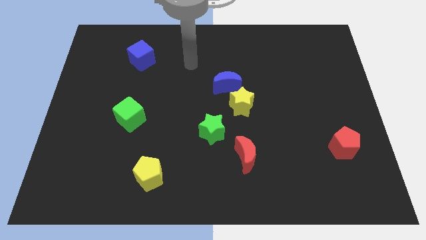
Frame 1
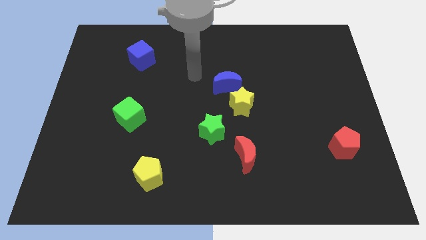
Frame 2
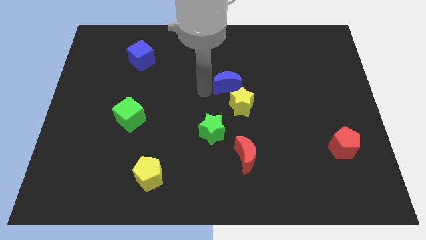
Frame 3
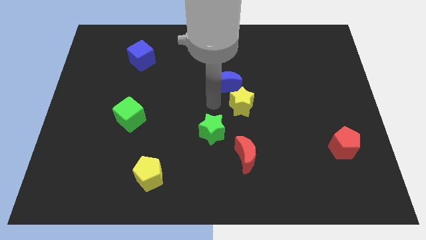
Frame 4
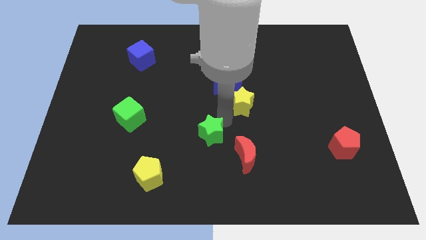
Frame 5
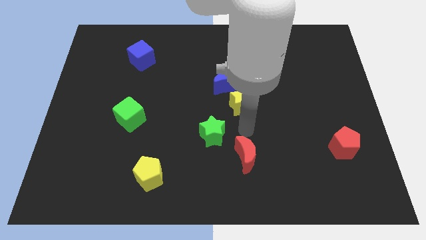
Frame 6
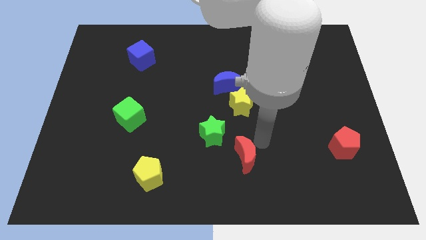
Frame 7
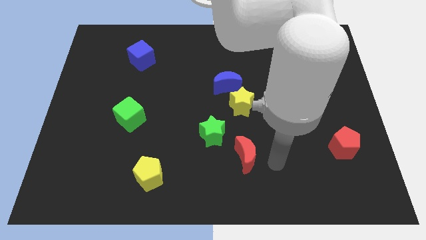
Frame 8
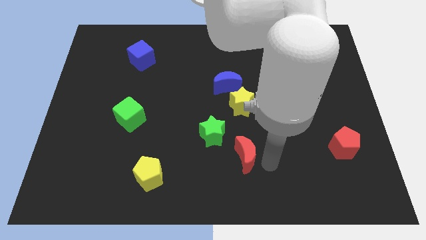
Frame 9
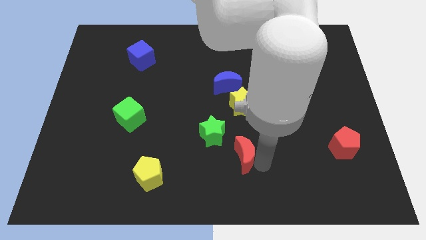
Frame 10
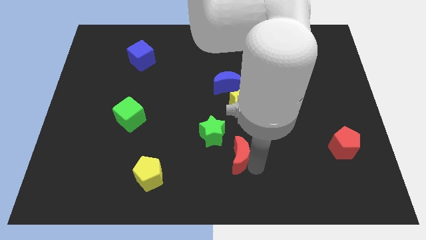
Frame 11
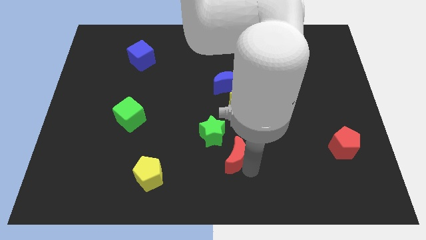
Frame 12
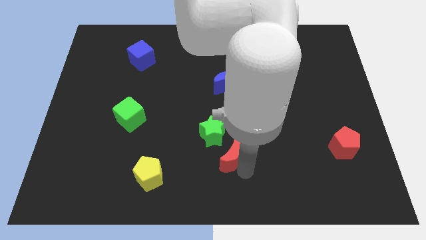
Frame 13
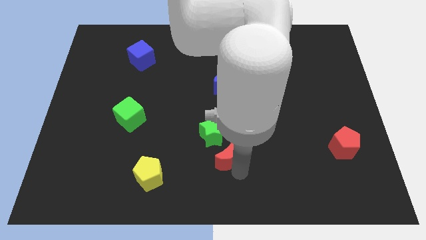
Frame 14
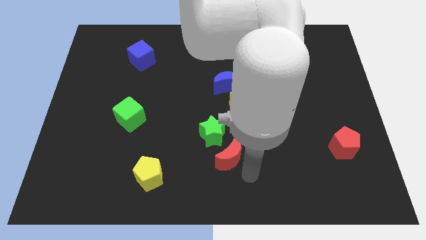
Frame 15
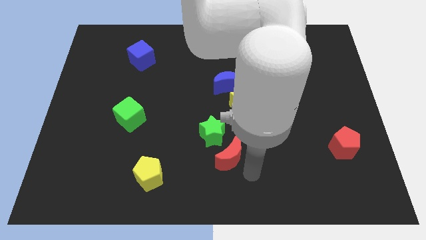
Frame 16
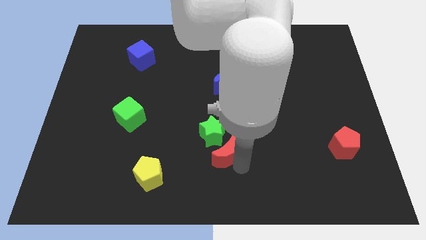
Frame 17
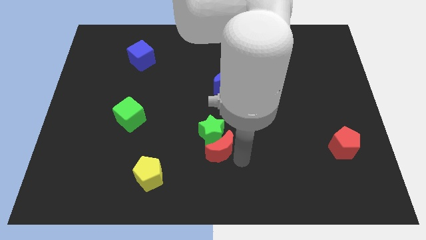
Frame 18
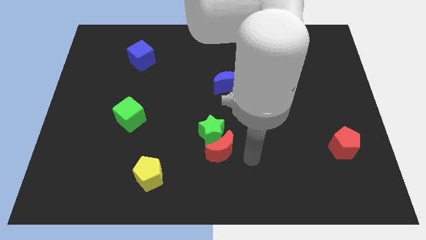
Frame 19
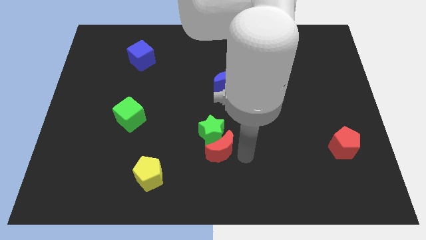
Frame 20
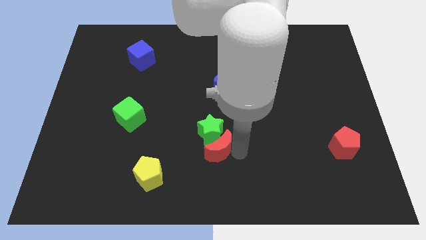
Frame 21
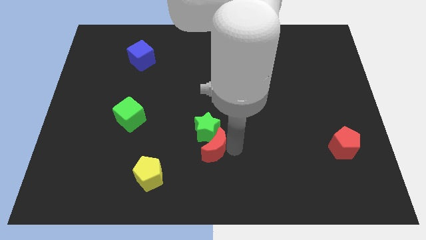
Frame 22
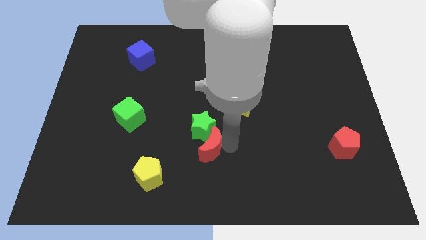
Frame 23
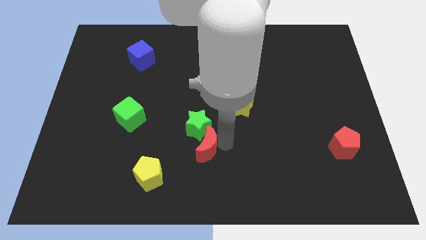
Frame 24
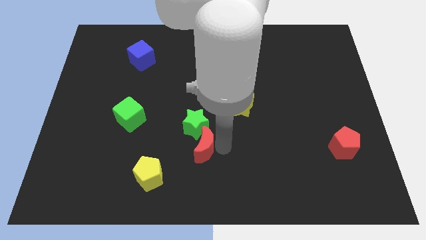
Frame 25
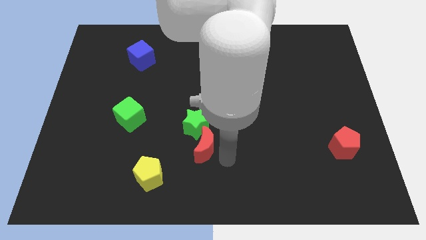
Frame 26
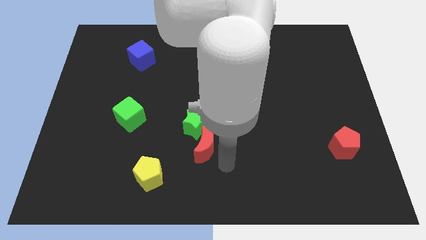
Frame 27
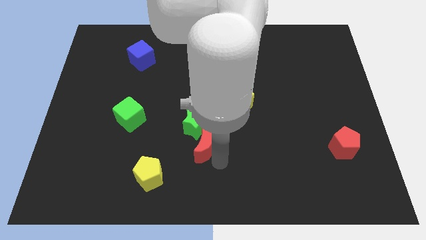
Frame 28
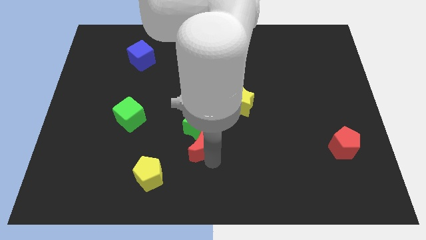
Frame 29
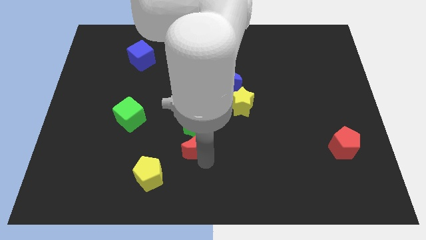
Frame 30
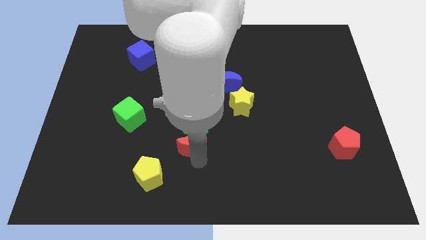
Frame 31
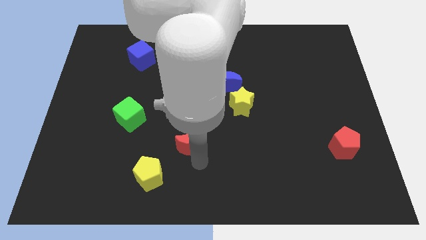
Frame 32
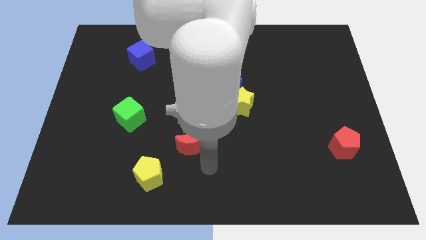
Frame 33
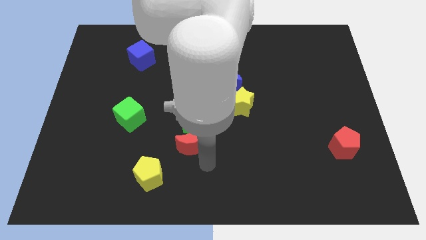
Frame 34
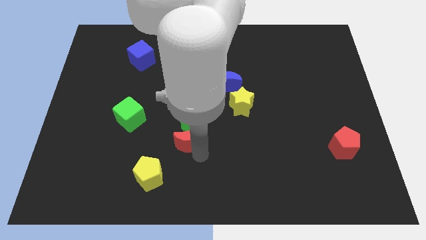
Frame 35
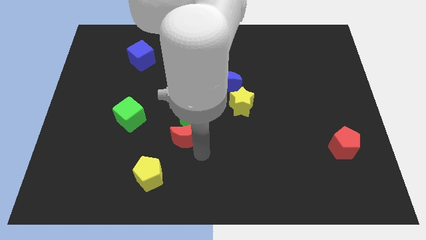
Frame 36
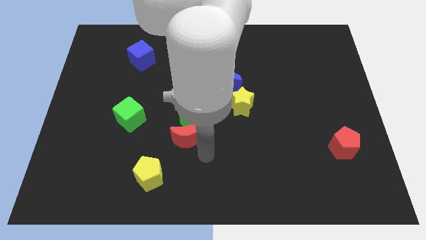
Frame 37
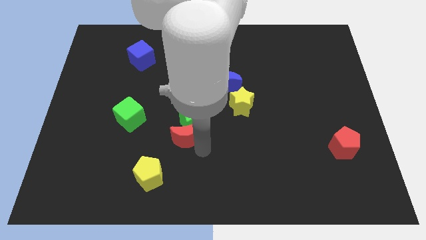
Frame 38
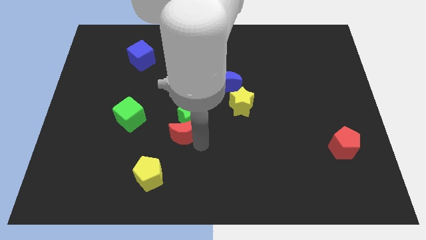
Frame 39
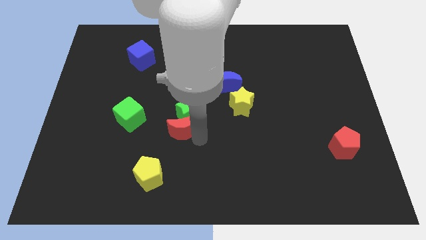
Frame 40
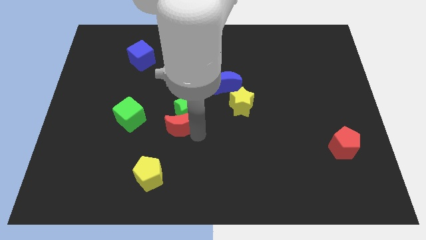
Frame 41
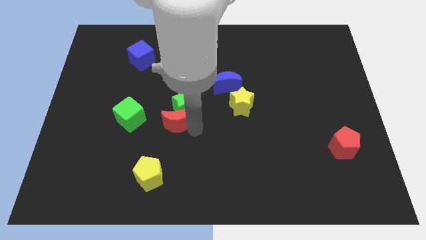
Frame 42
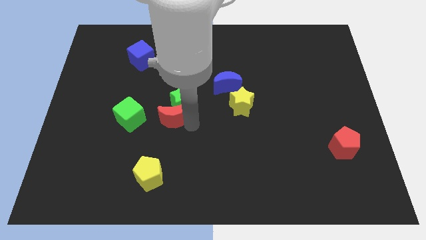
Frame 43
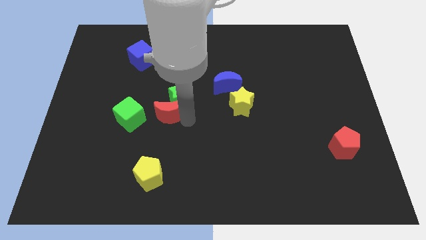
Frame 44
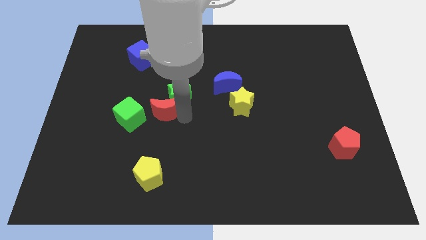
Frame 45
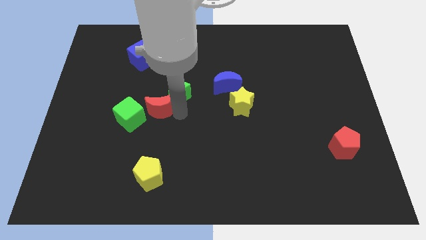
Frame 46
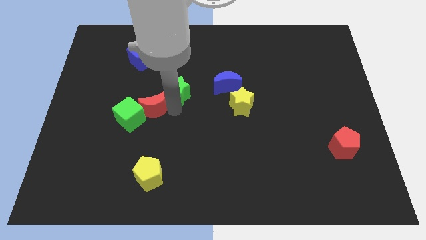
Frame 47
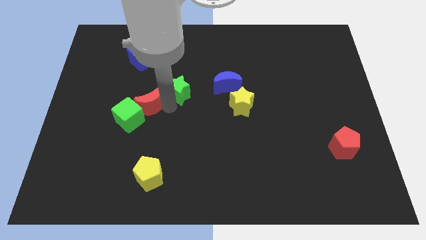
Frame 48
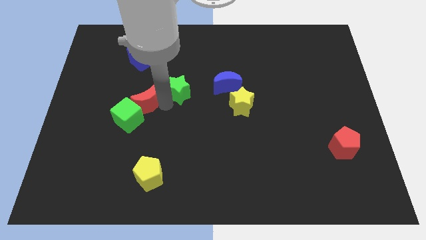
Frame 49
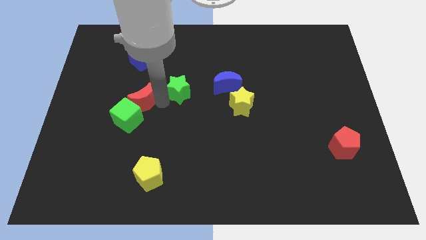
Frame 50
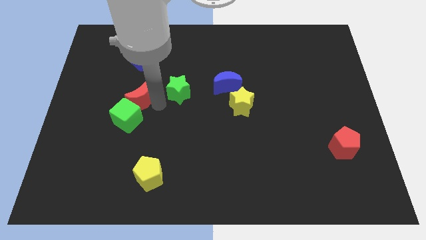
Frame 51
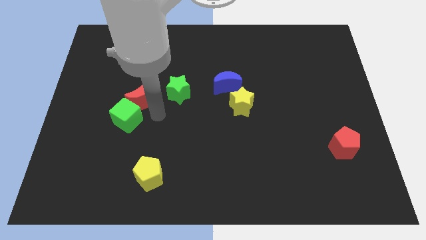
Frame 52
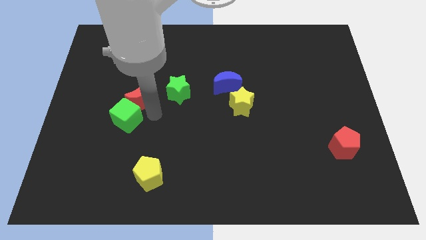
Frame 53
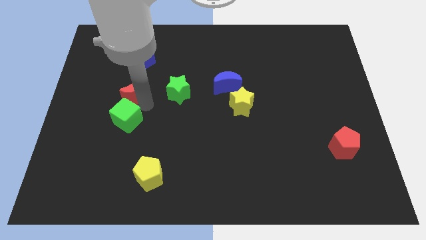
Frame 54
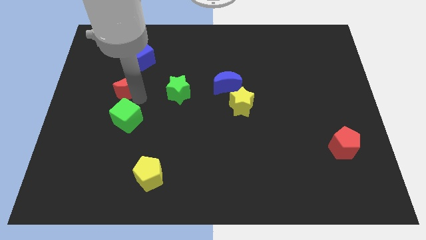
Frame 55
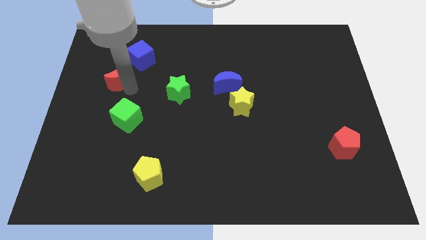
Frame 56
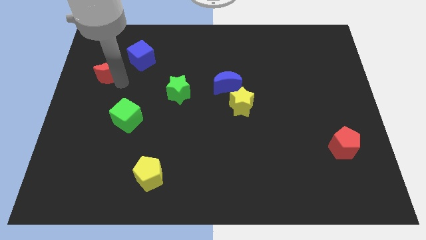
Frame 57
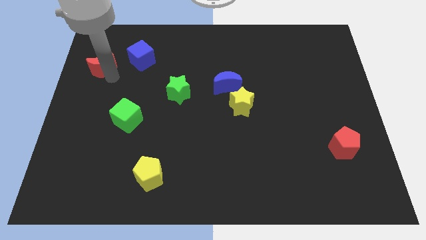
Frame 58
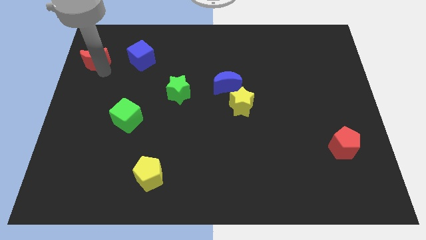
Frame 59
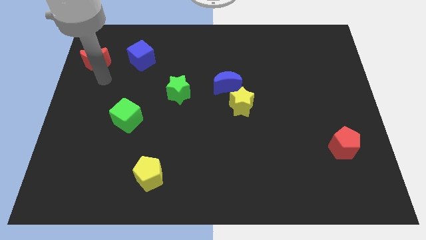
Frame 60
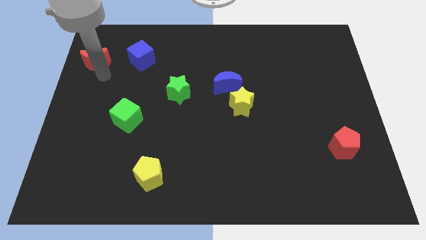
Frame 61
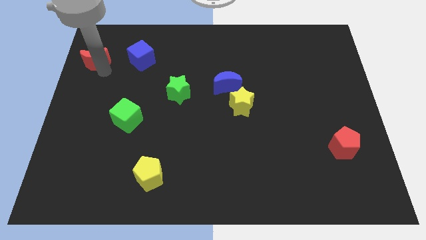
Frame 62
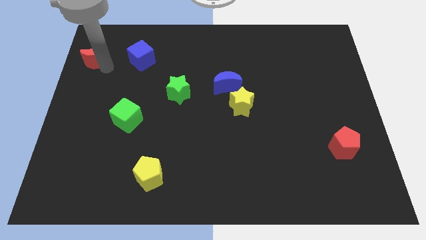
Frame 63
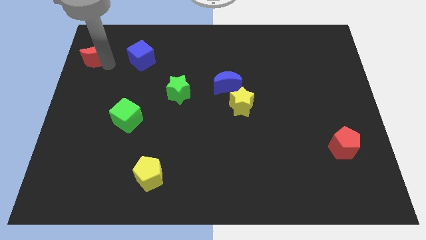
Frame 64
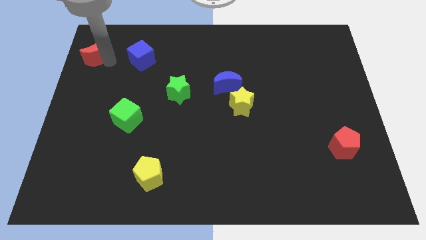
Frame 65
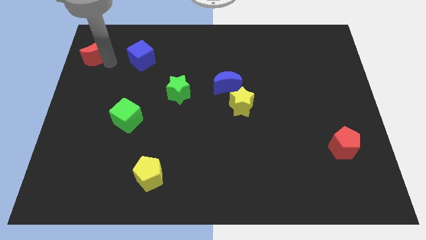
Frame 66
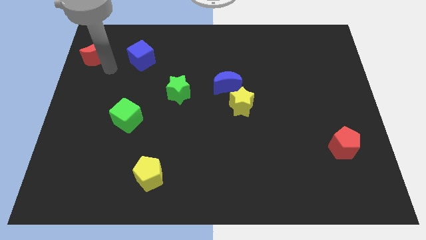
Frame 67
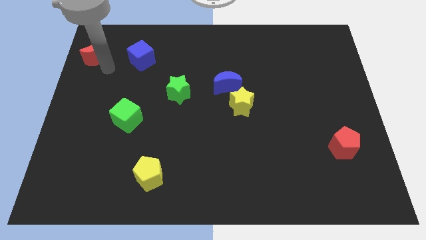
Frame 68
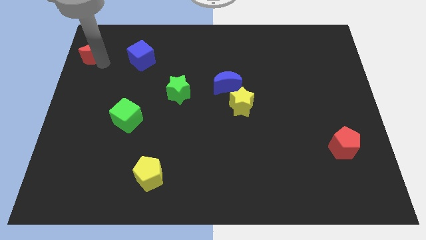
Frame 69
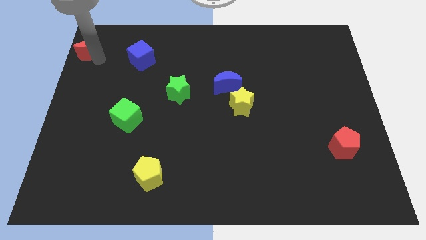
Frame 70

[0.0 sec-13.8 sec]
move the red moon to the top left of the board
